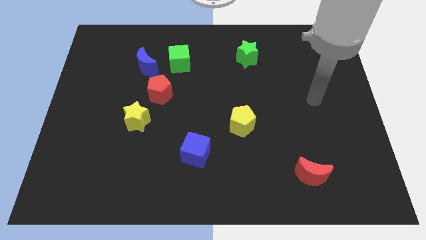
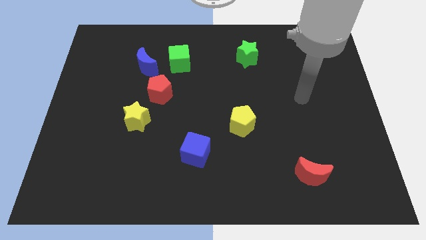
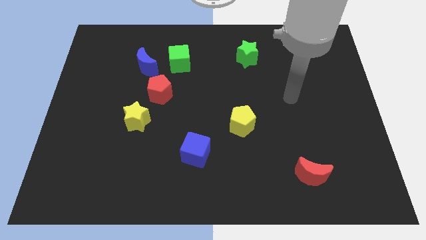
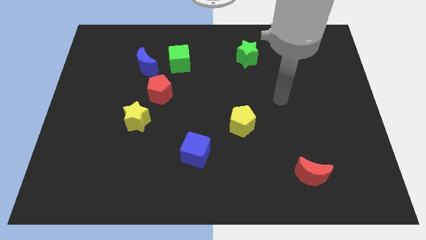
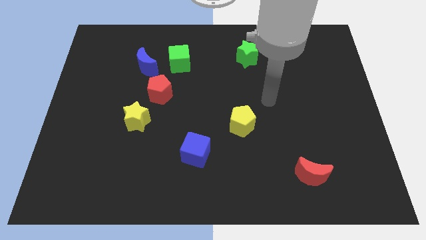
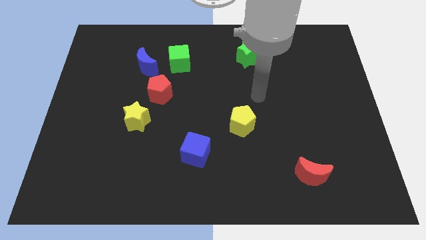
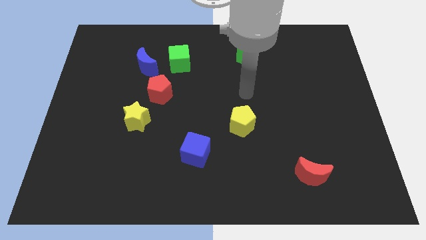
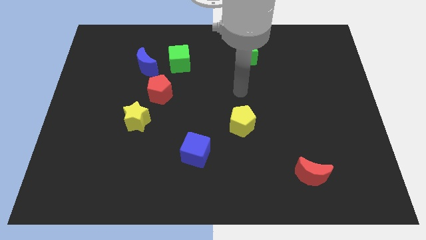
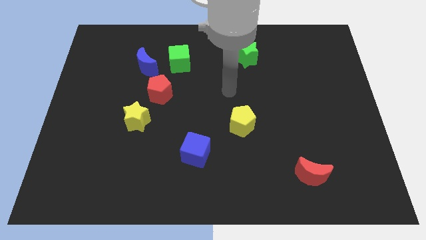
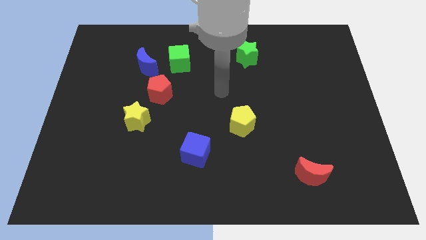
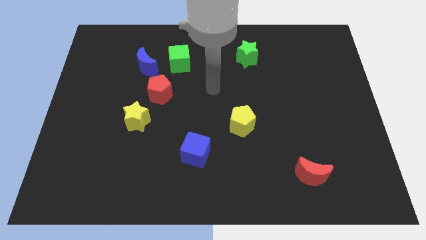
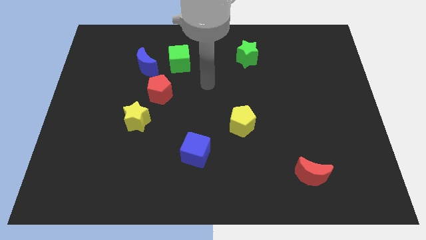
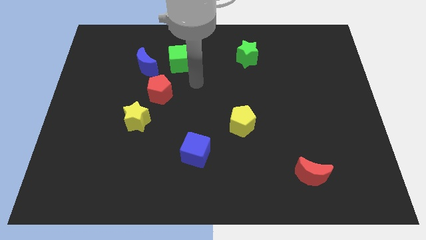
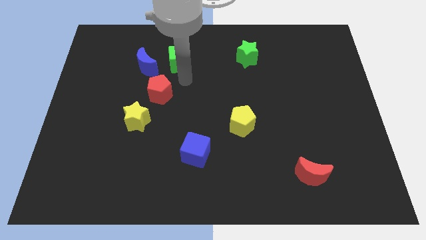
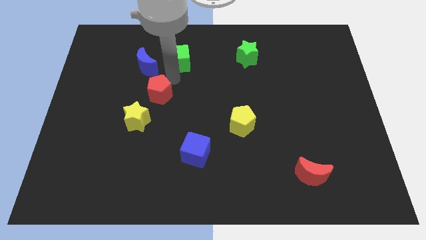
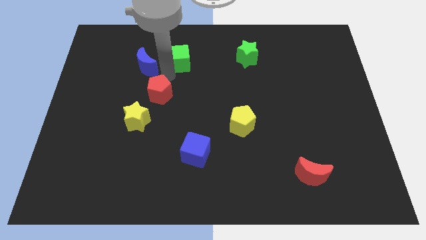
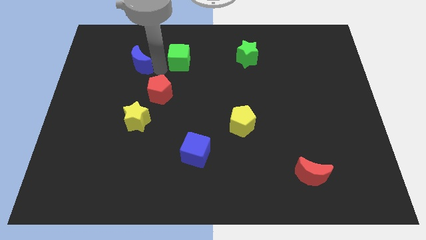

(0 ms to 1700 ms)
separate the green cube from the blue moon

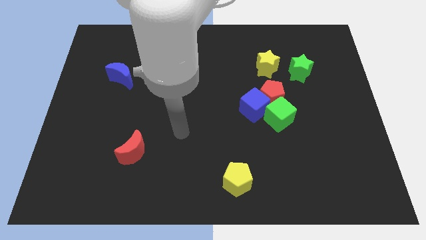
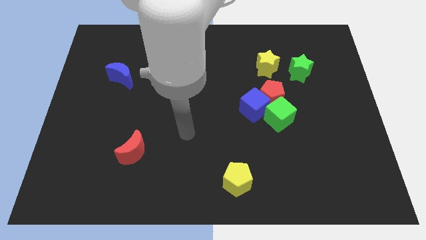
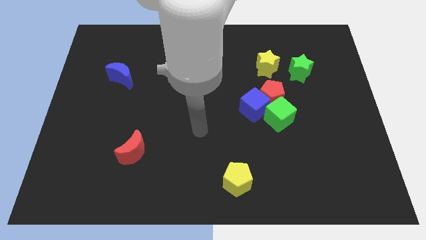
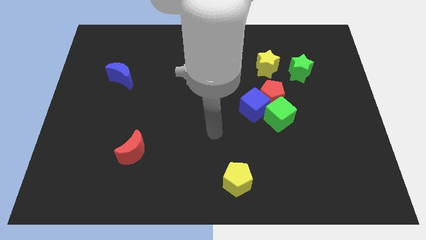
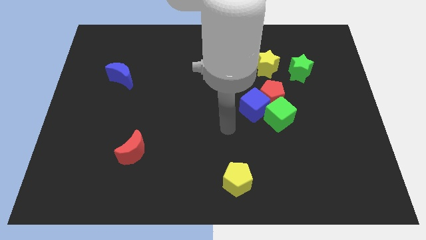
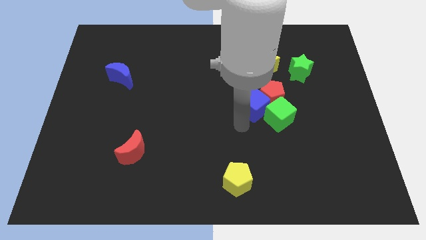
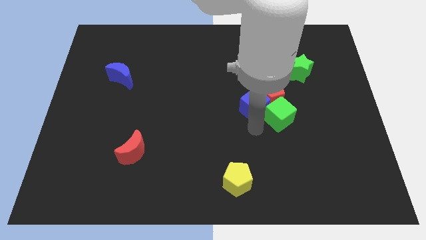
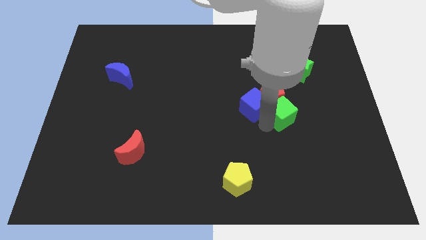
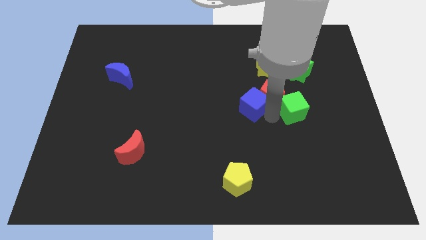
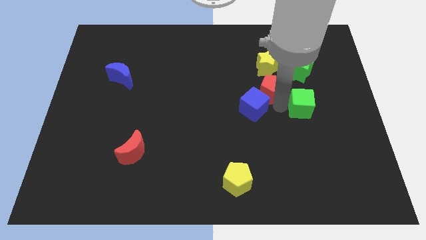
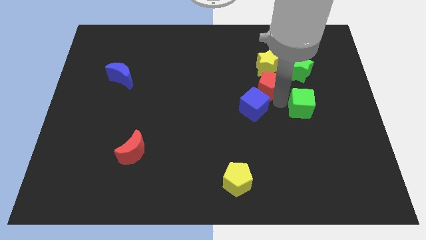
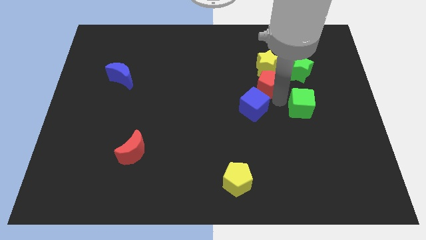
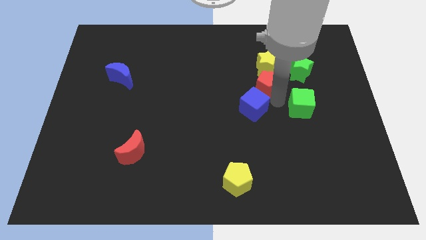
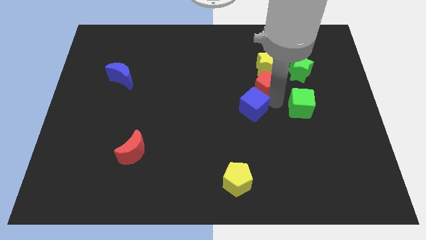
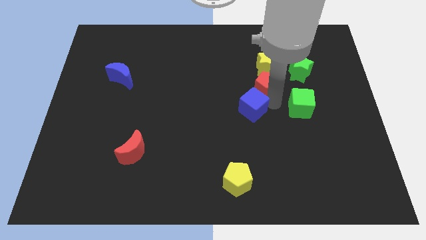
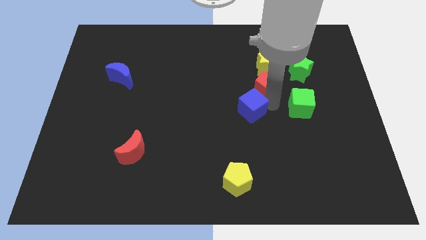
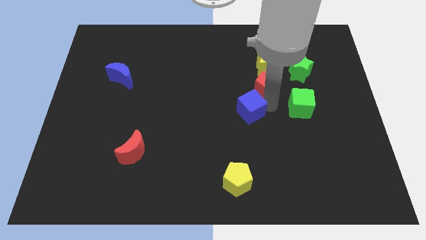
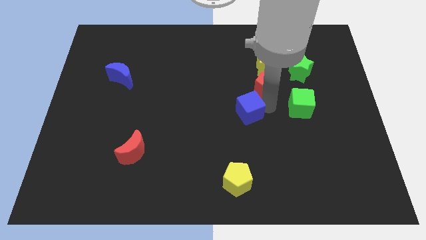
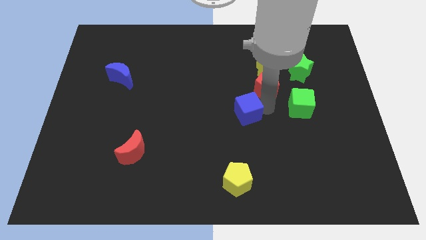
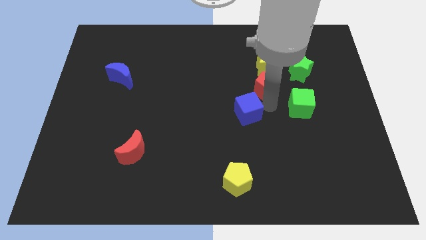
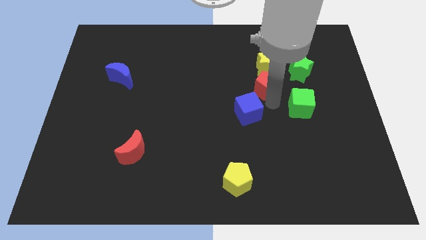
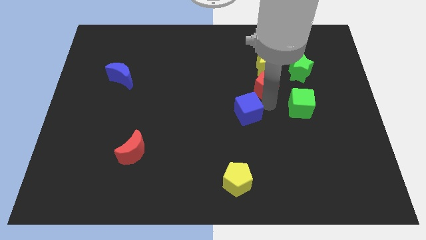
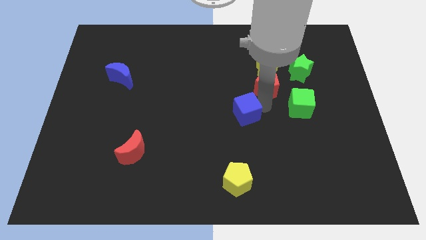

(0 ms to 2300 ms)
pull the blue cube apart from the red pentagon and green cube

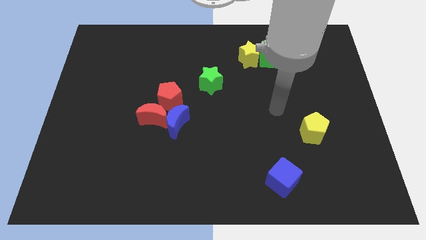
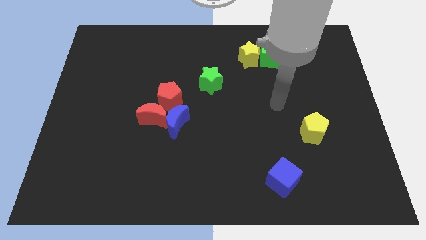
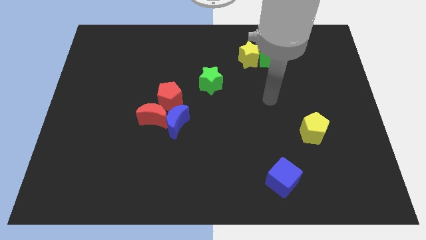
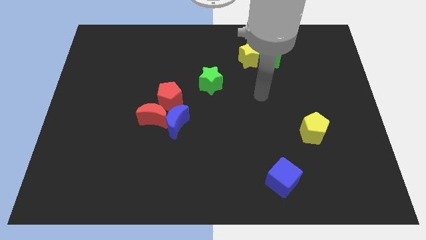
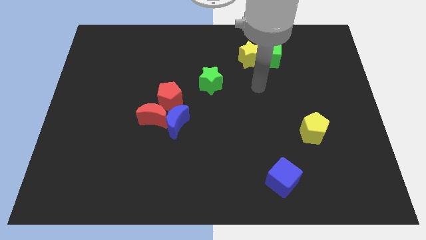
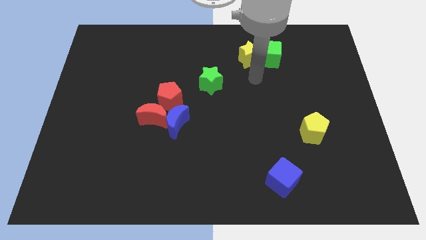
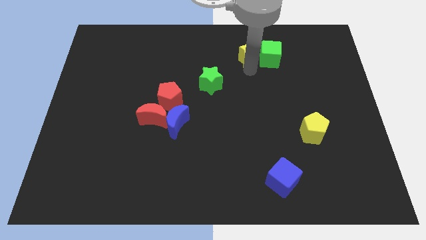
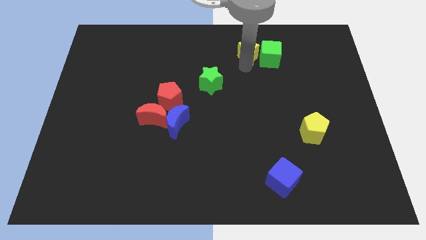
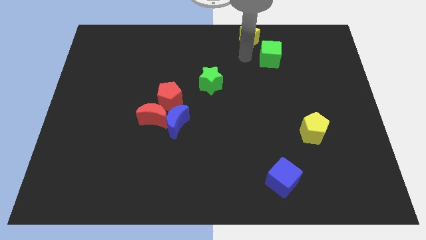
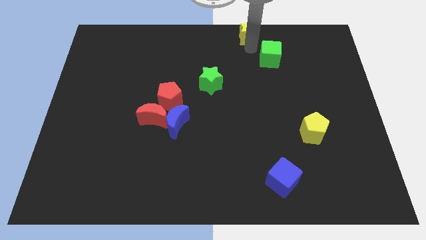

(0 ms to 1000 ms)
separate the green cube from the yellow star

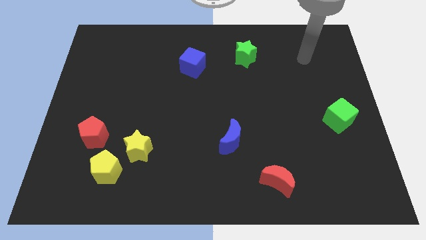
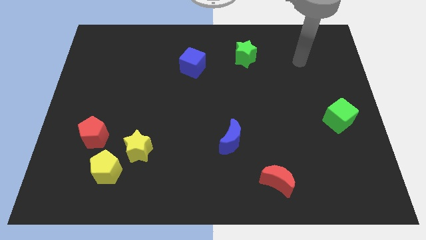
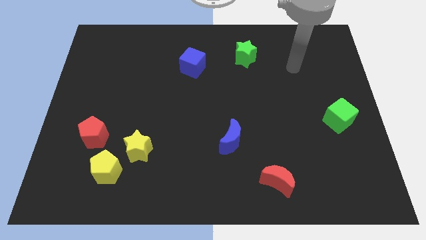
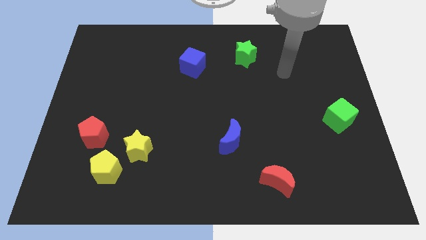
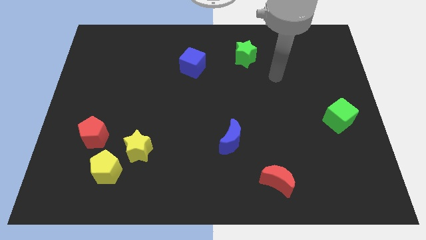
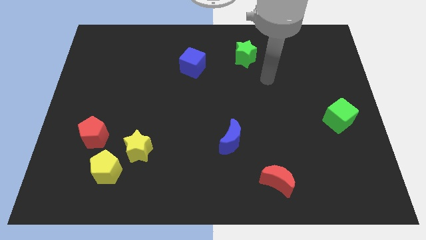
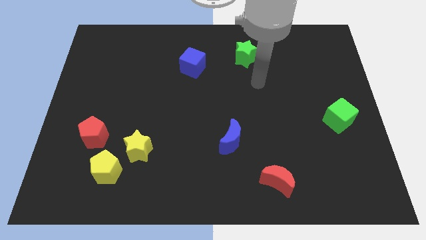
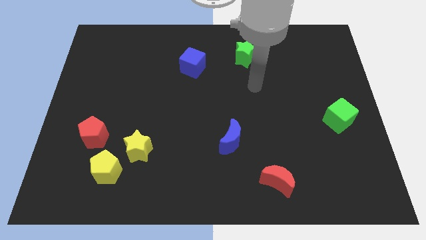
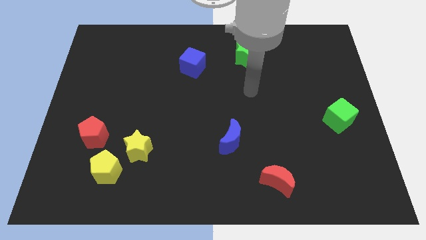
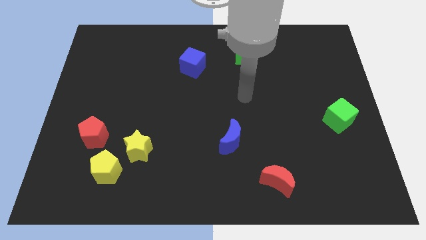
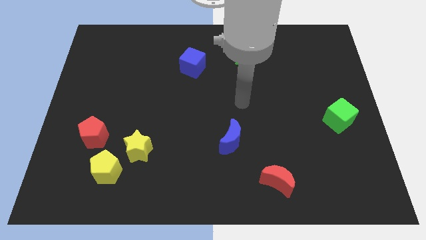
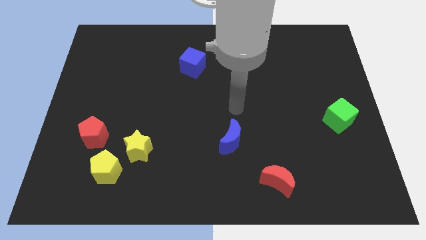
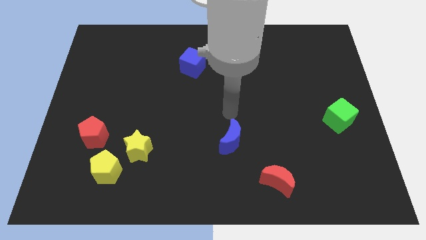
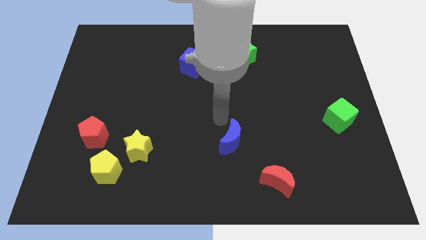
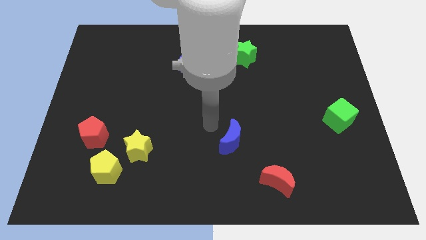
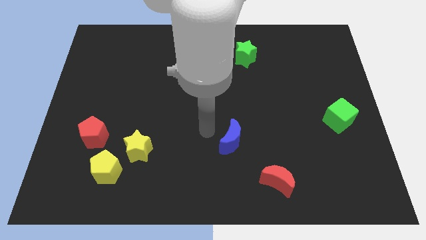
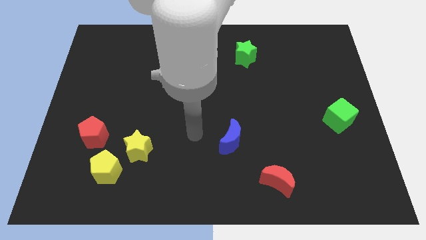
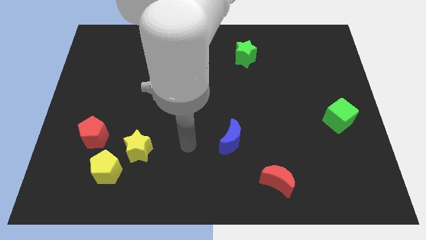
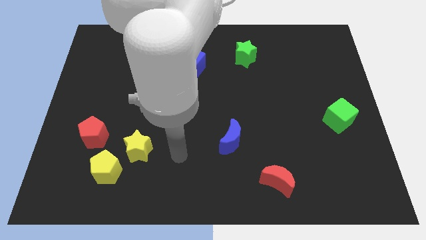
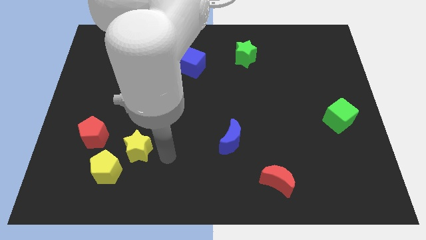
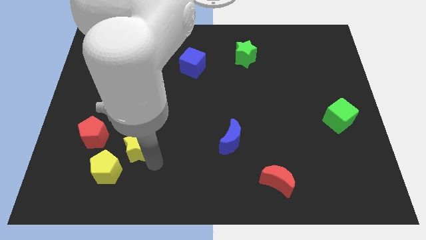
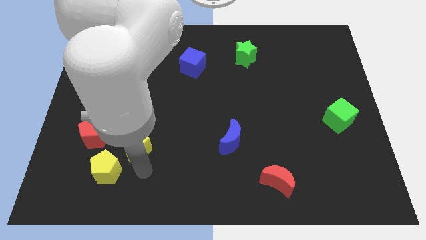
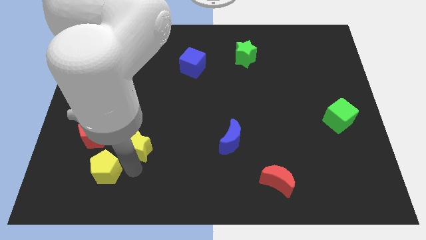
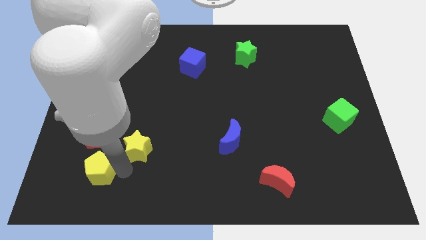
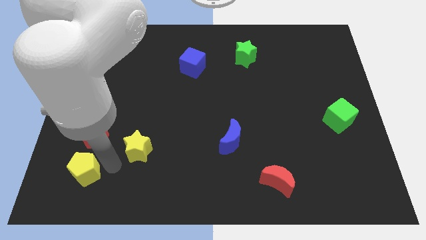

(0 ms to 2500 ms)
separate the yellow star from the yellow pentagon

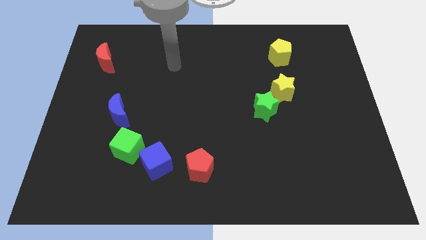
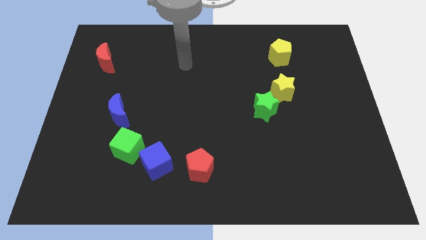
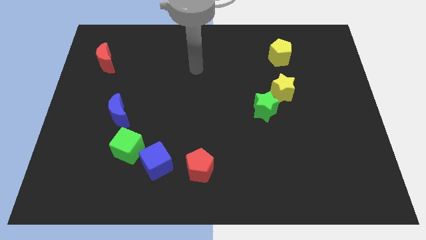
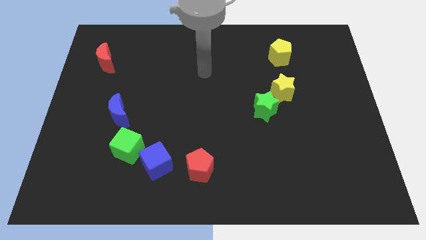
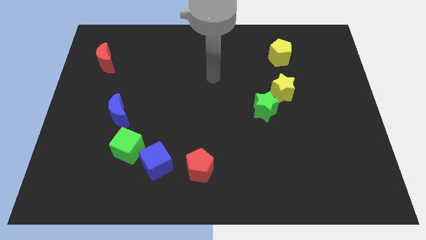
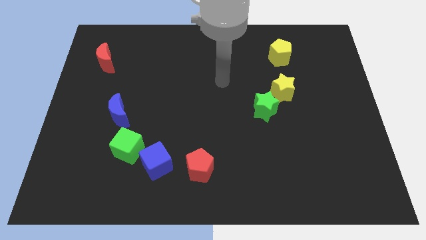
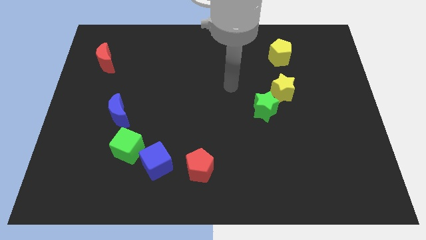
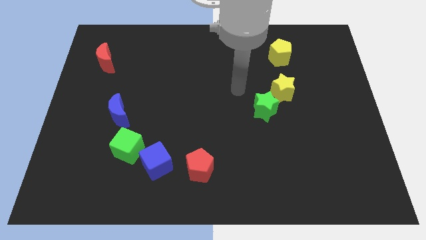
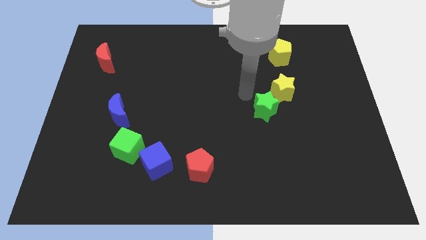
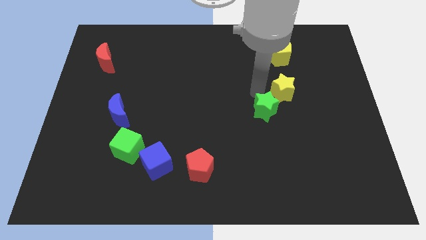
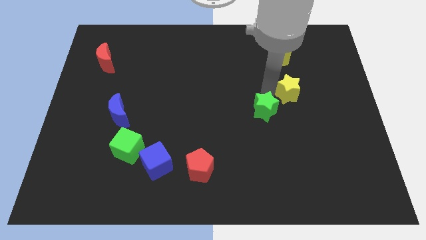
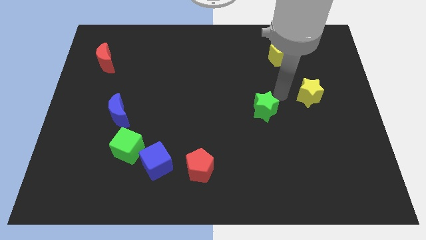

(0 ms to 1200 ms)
move the green star away from the yellow star

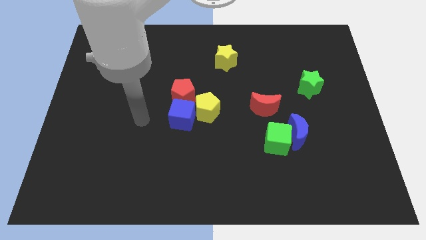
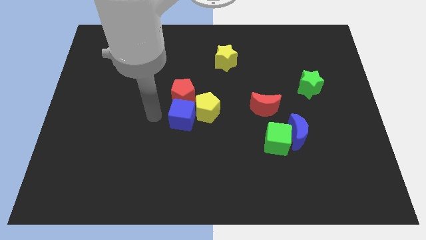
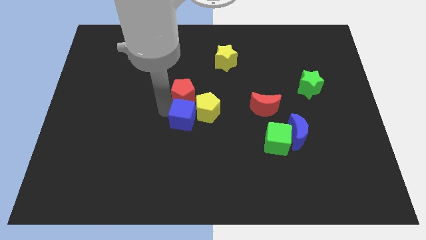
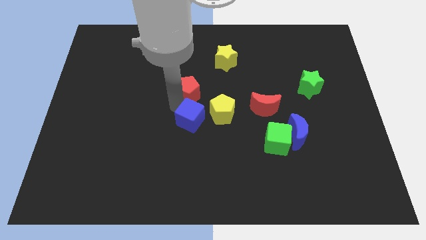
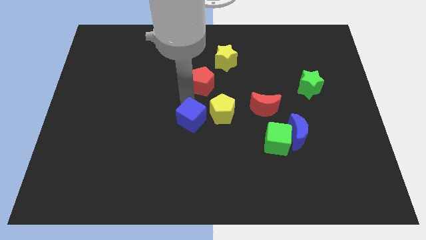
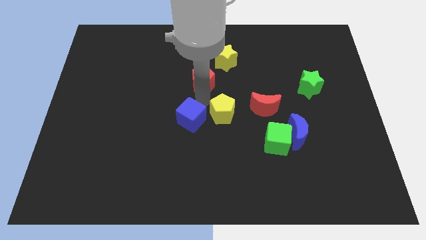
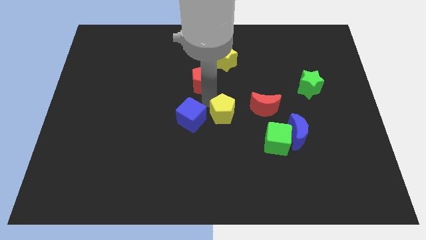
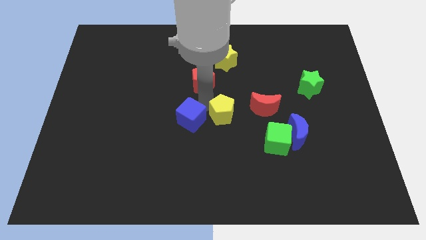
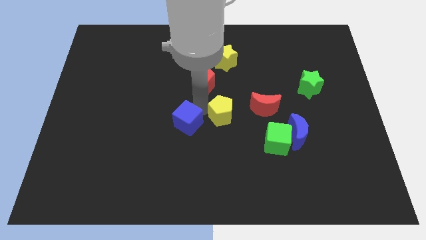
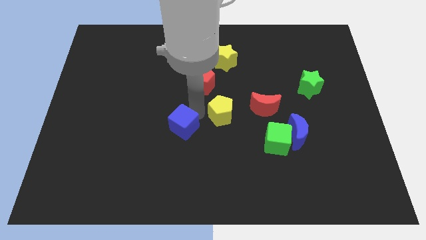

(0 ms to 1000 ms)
separate the blue cube from the yellow pentagon and red pentagon
